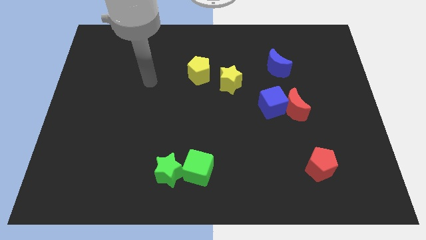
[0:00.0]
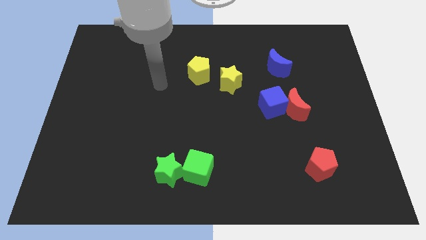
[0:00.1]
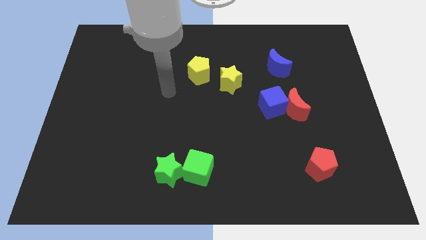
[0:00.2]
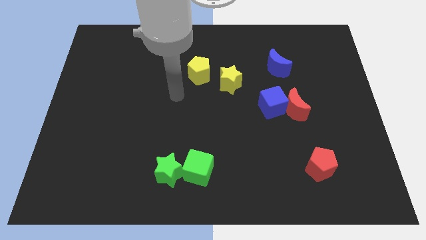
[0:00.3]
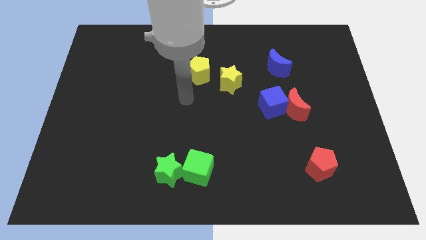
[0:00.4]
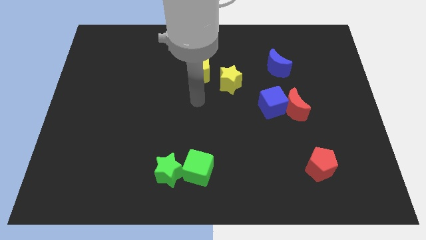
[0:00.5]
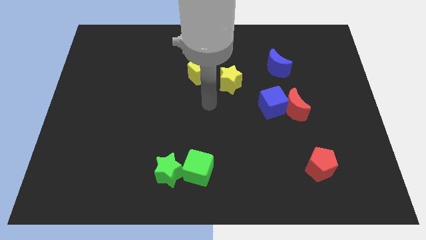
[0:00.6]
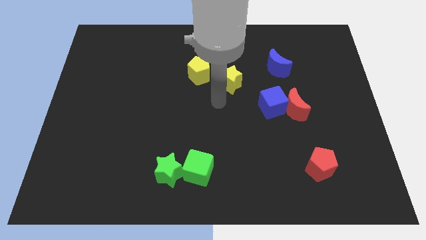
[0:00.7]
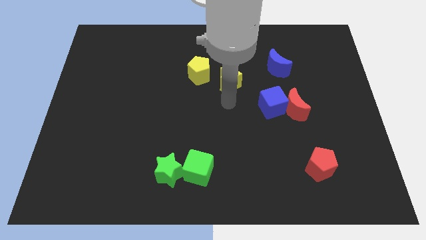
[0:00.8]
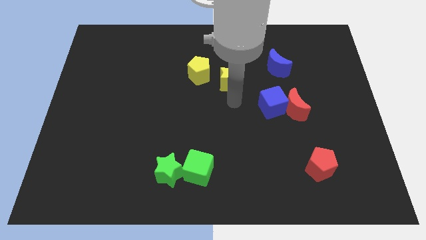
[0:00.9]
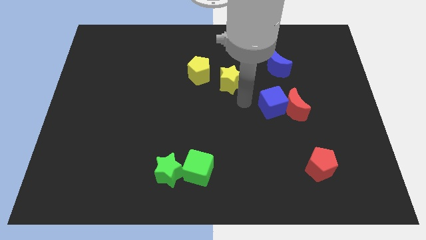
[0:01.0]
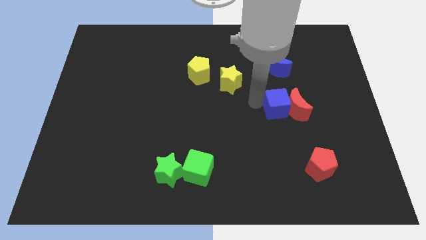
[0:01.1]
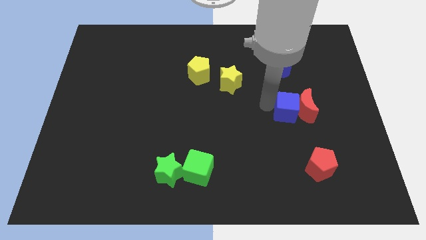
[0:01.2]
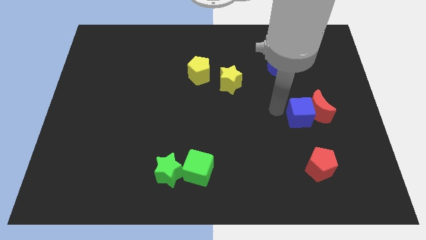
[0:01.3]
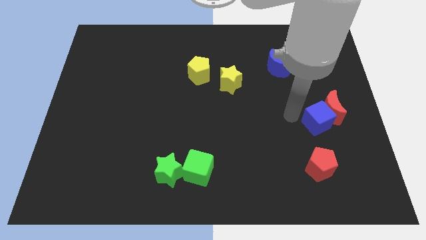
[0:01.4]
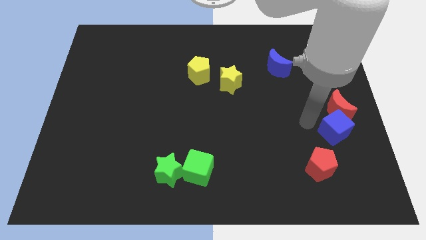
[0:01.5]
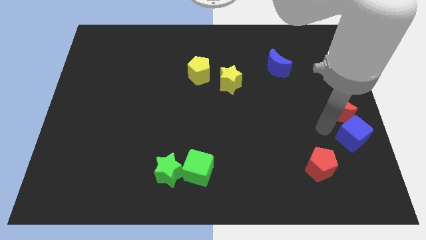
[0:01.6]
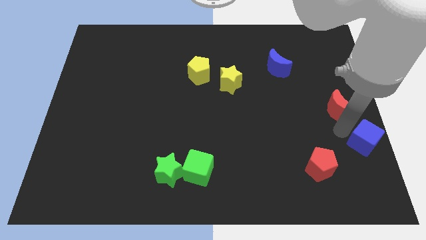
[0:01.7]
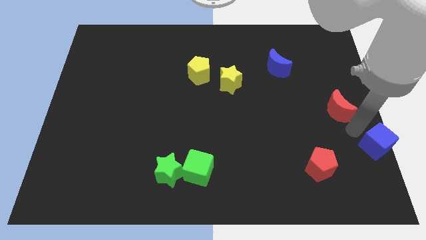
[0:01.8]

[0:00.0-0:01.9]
move the red moon away from the blue cube

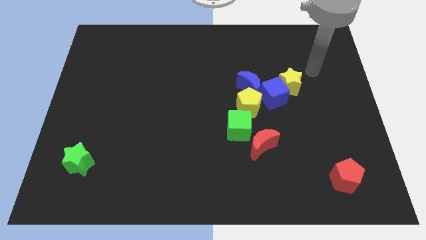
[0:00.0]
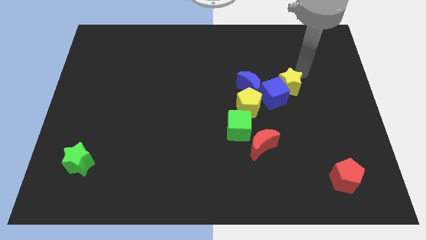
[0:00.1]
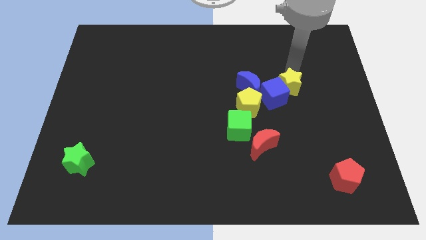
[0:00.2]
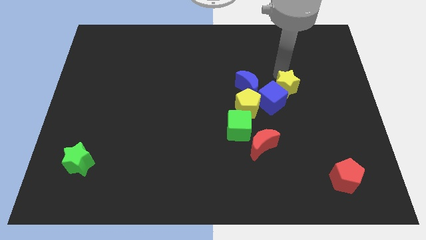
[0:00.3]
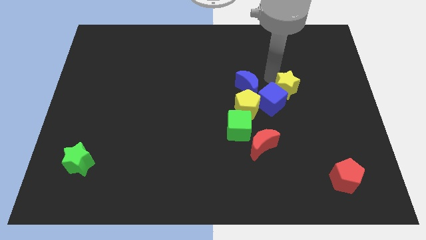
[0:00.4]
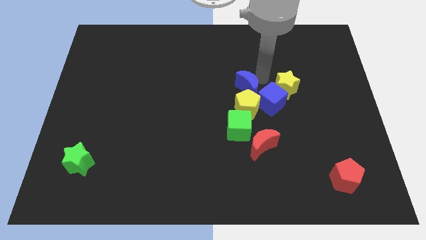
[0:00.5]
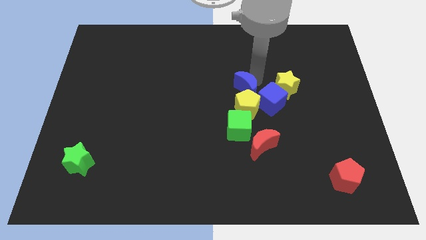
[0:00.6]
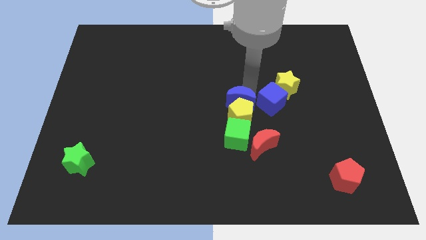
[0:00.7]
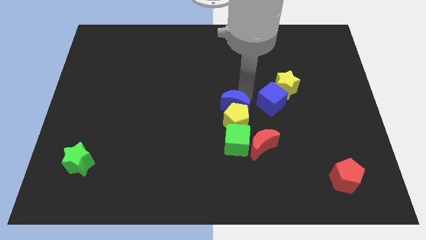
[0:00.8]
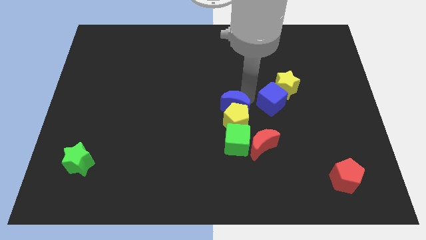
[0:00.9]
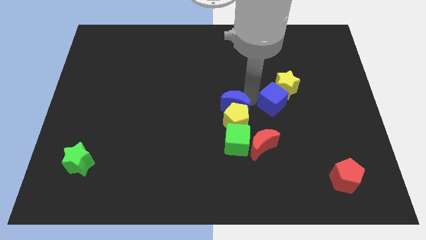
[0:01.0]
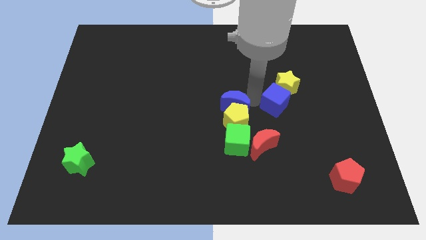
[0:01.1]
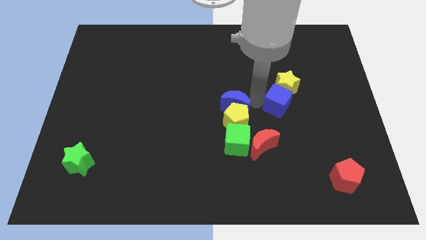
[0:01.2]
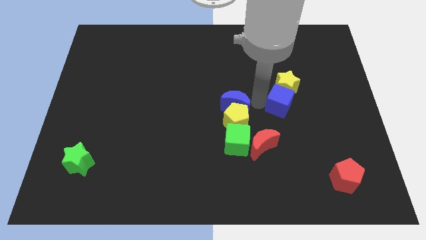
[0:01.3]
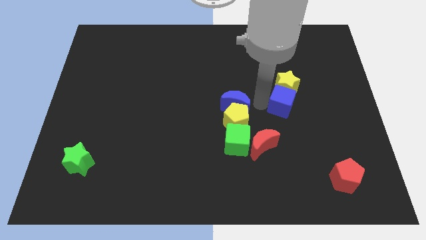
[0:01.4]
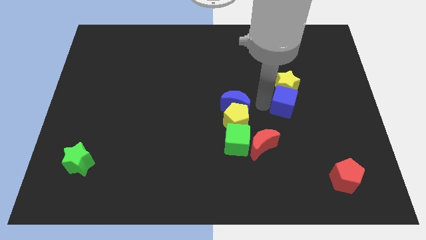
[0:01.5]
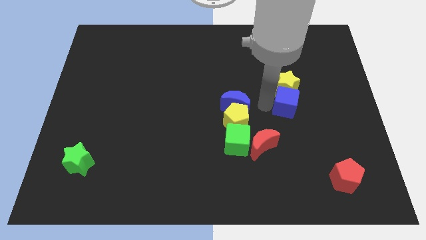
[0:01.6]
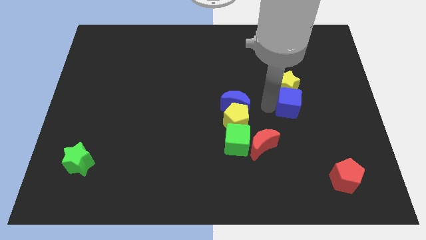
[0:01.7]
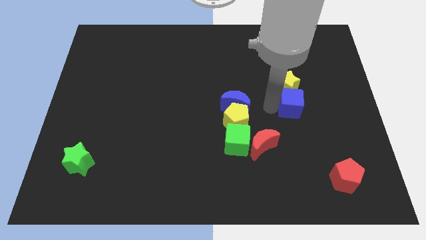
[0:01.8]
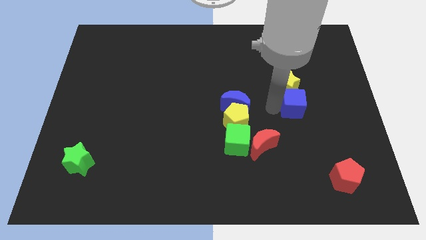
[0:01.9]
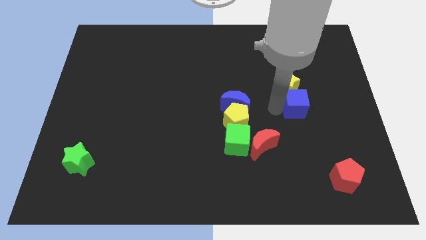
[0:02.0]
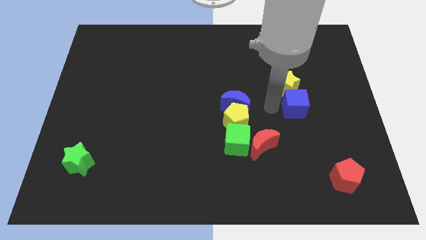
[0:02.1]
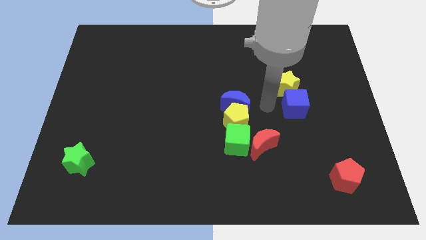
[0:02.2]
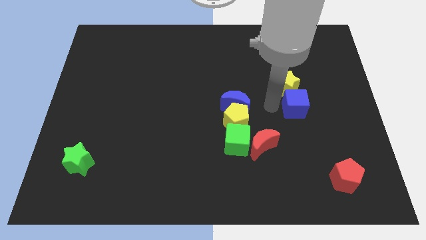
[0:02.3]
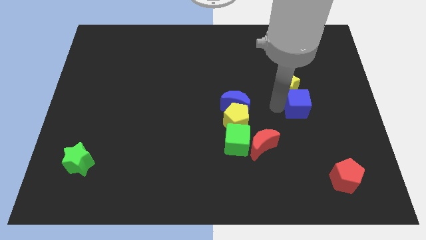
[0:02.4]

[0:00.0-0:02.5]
move the blue cube away from the yellow star, blue moon, and yellow pentagon

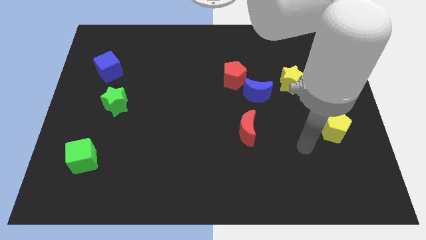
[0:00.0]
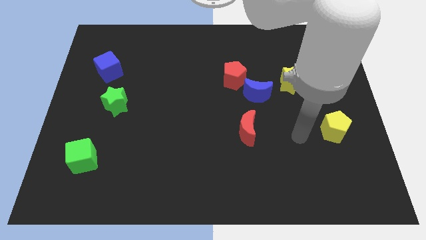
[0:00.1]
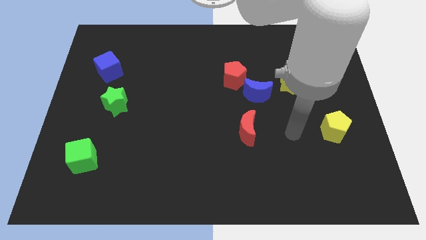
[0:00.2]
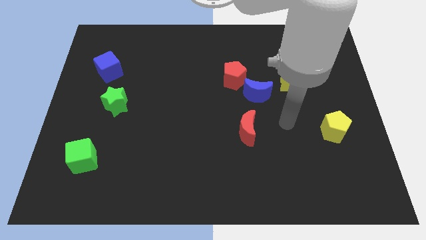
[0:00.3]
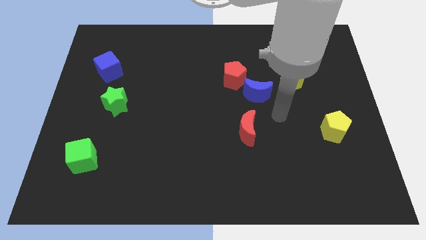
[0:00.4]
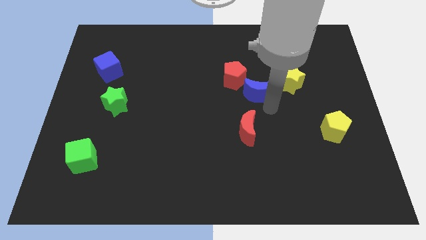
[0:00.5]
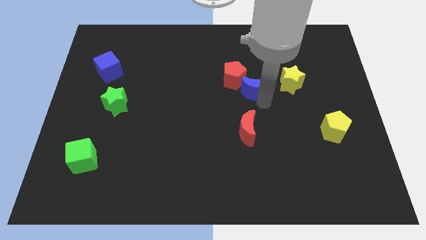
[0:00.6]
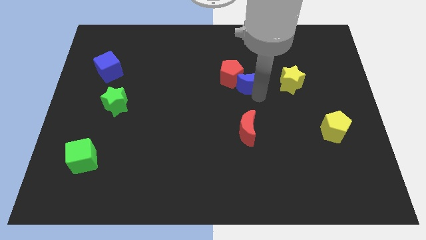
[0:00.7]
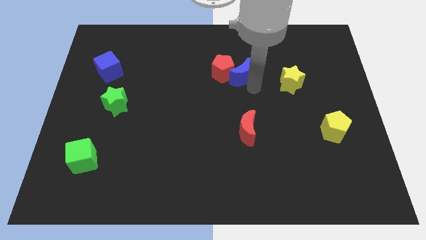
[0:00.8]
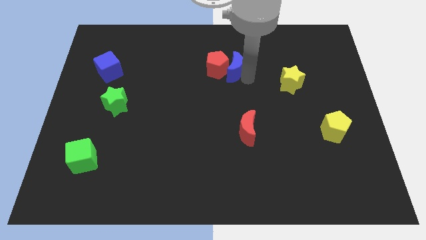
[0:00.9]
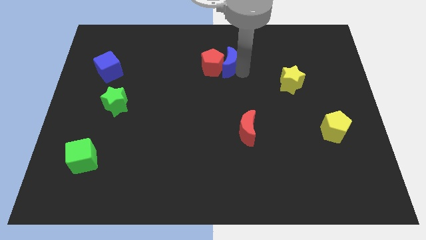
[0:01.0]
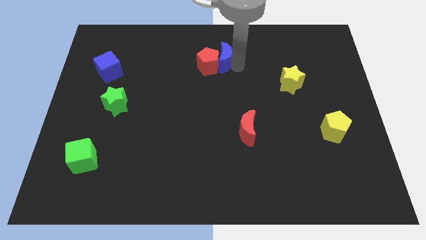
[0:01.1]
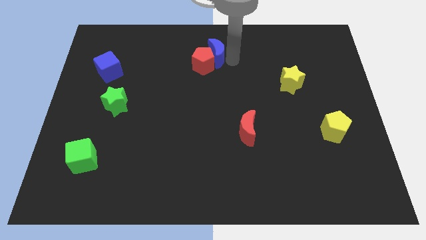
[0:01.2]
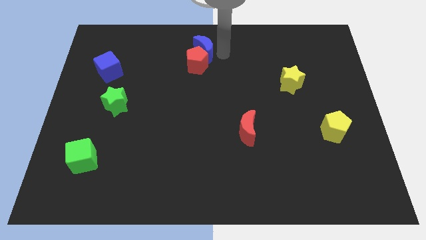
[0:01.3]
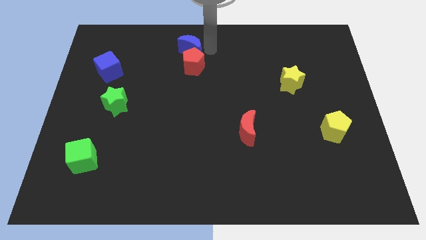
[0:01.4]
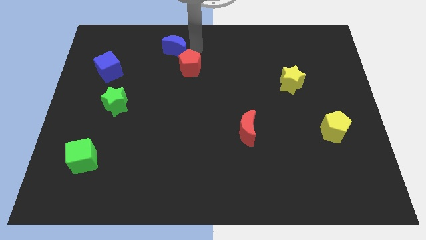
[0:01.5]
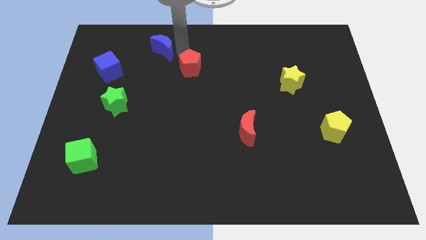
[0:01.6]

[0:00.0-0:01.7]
move the red pentagon away from the blue moon

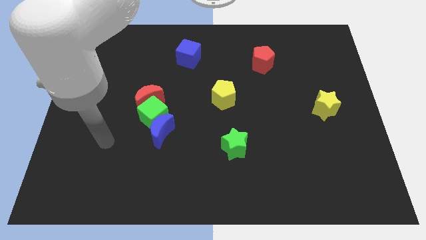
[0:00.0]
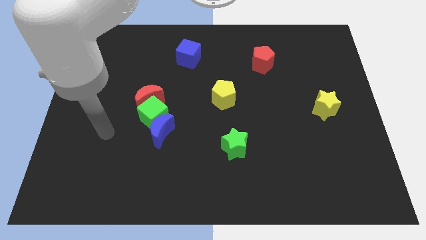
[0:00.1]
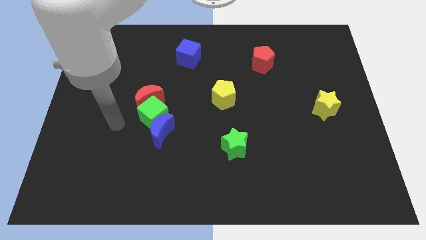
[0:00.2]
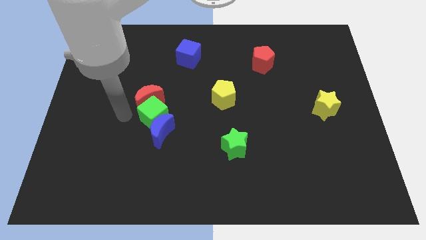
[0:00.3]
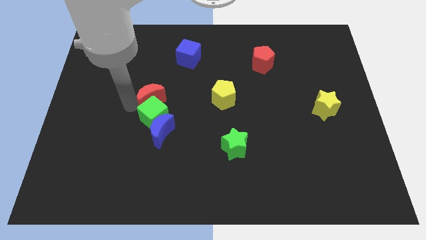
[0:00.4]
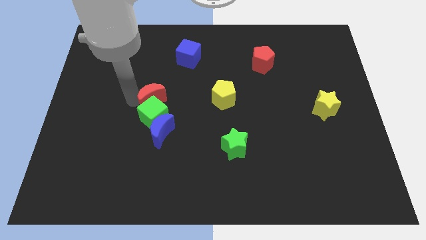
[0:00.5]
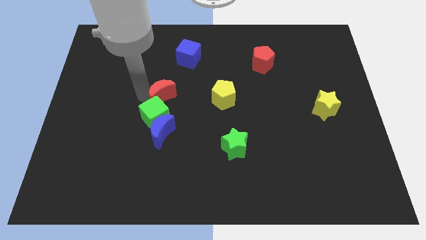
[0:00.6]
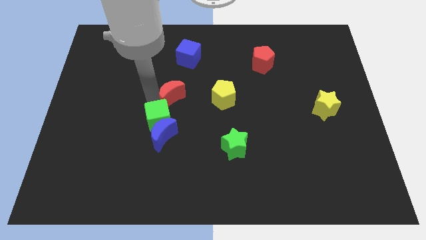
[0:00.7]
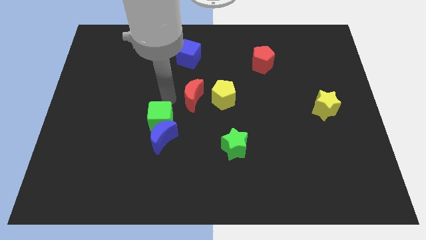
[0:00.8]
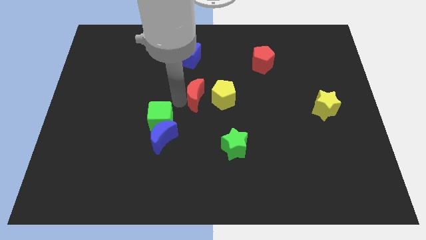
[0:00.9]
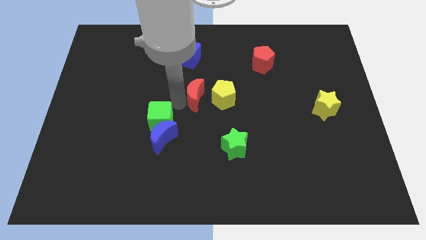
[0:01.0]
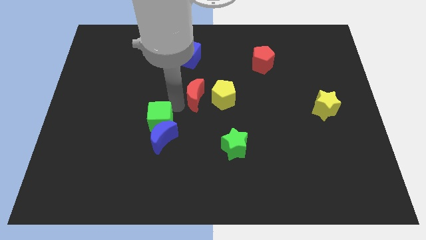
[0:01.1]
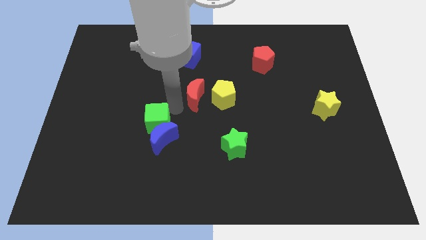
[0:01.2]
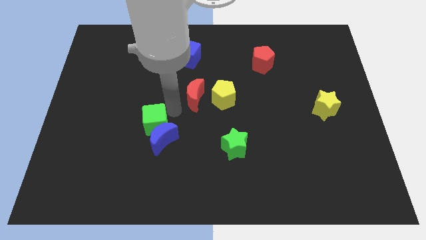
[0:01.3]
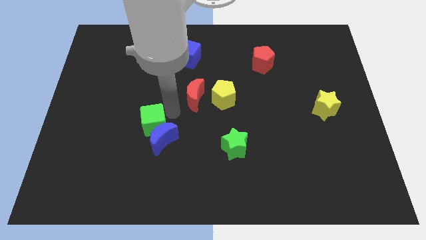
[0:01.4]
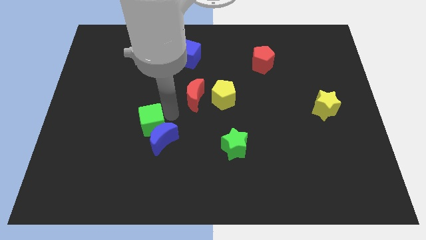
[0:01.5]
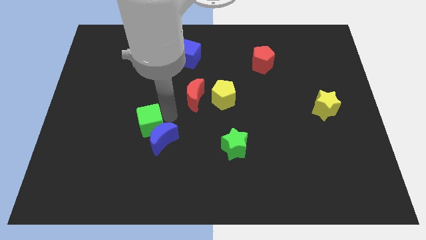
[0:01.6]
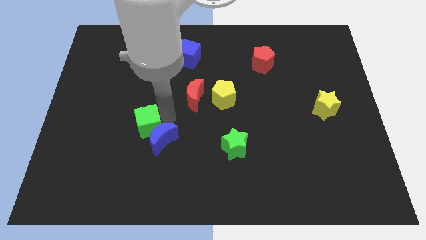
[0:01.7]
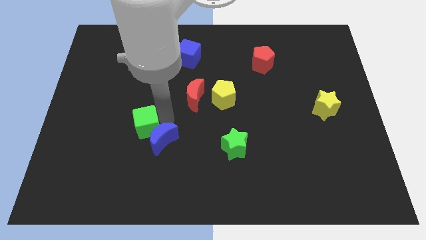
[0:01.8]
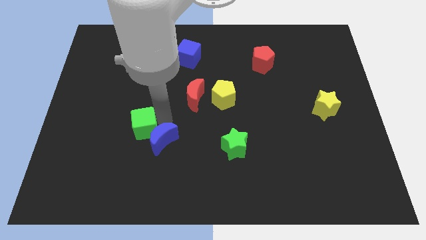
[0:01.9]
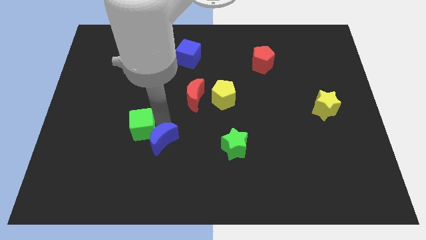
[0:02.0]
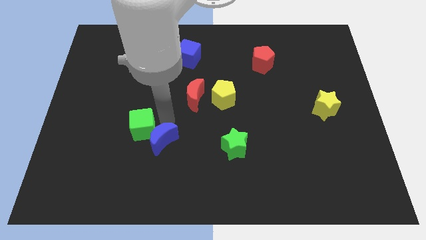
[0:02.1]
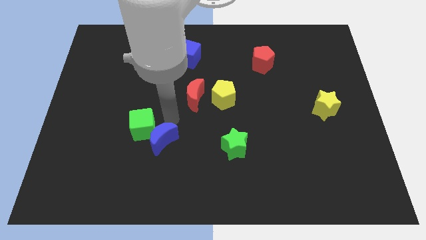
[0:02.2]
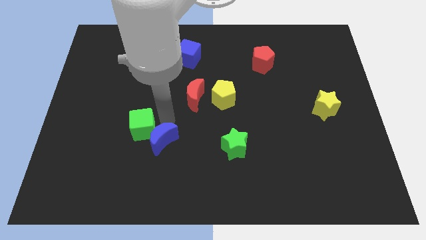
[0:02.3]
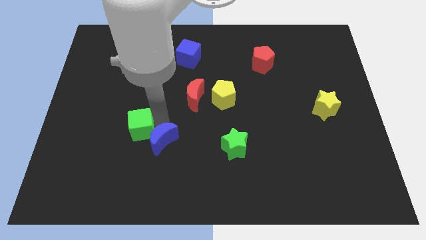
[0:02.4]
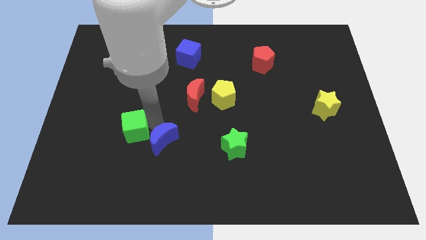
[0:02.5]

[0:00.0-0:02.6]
pull the green cube apart from the blue moon and red moon

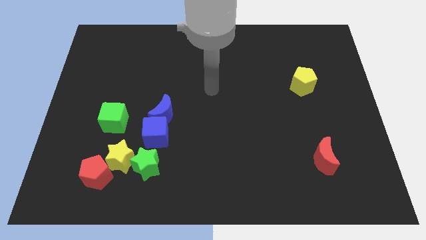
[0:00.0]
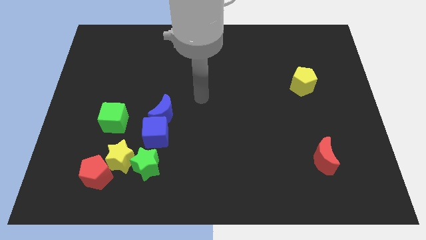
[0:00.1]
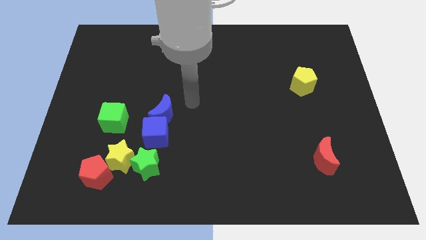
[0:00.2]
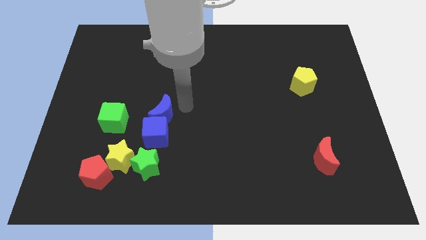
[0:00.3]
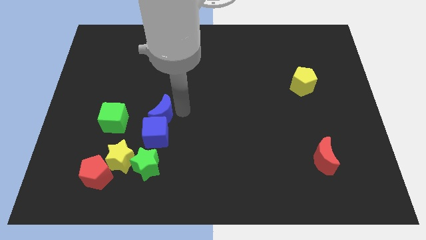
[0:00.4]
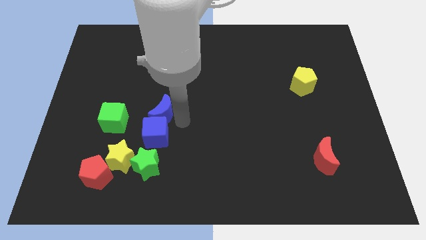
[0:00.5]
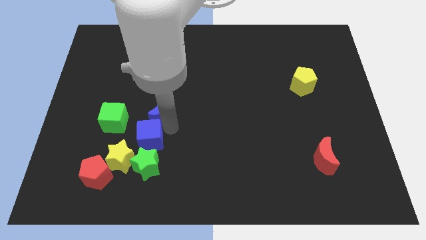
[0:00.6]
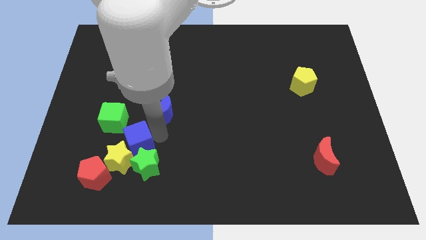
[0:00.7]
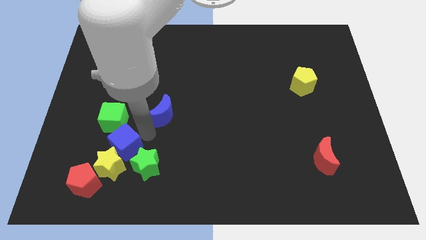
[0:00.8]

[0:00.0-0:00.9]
move the blue moon away from the blue cube
